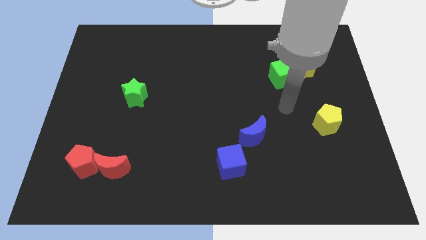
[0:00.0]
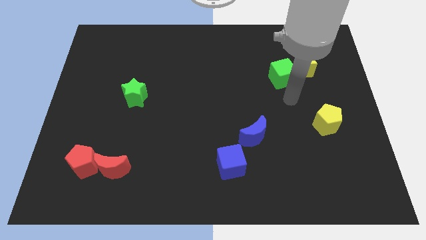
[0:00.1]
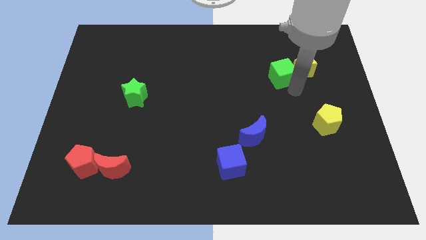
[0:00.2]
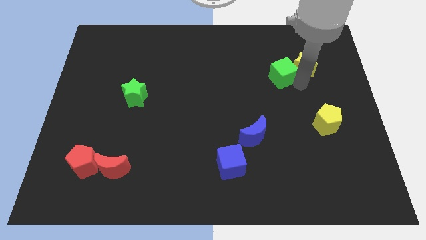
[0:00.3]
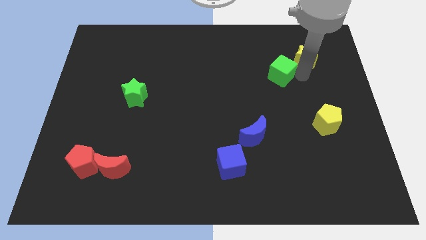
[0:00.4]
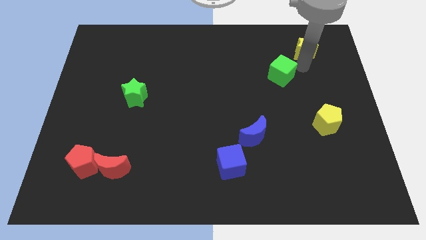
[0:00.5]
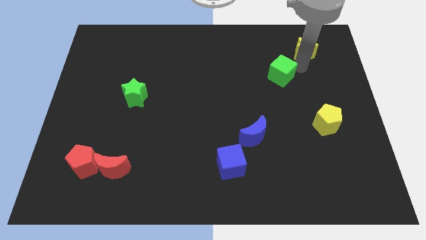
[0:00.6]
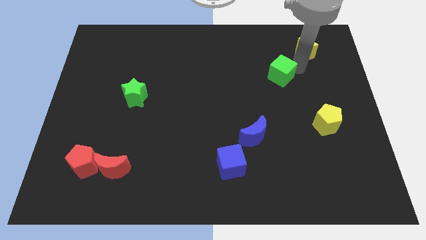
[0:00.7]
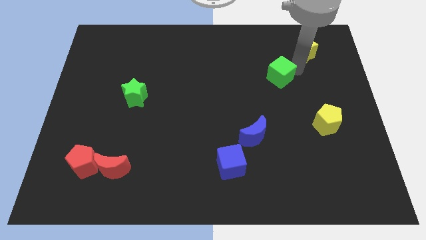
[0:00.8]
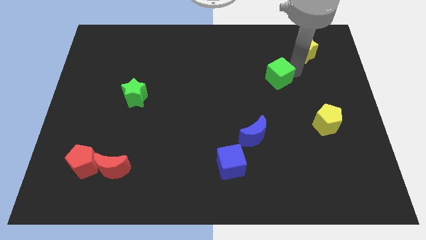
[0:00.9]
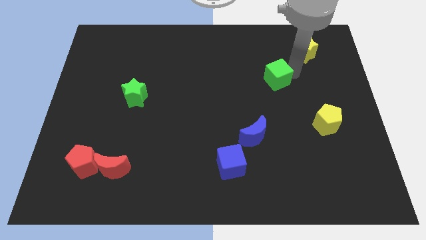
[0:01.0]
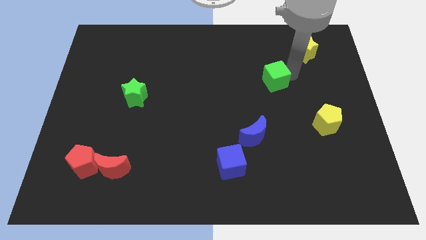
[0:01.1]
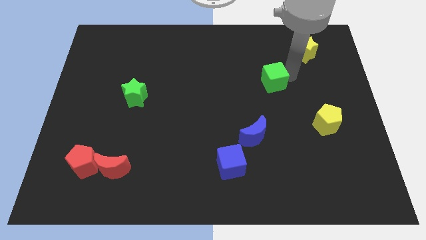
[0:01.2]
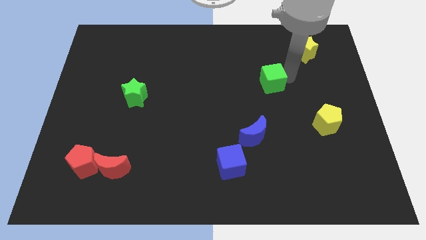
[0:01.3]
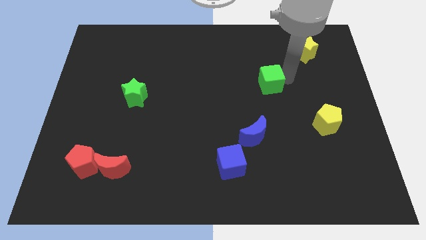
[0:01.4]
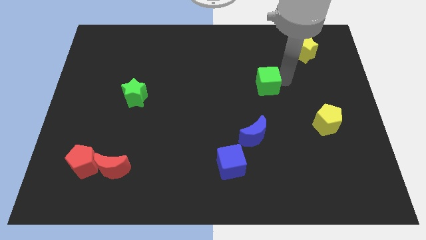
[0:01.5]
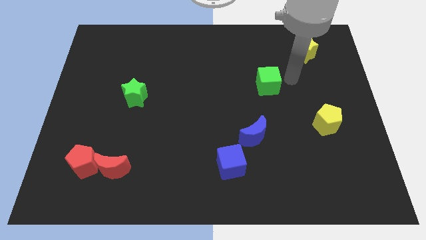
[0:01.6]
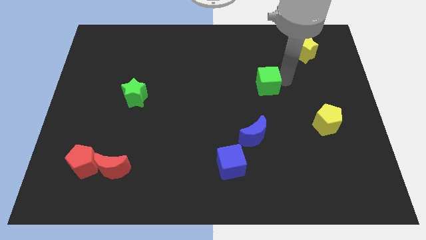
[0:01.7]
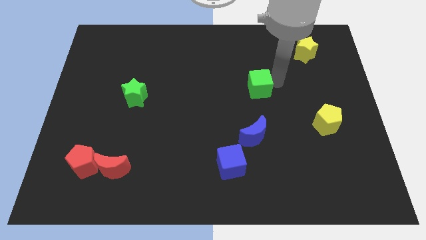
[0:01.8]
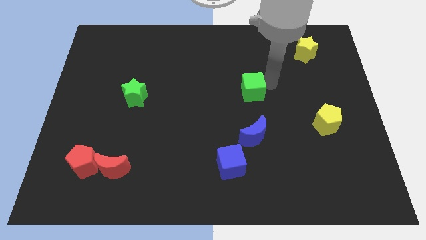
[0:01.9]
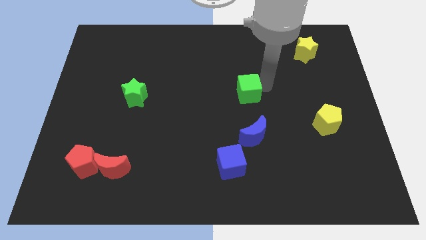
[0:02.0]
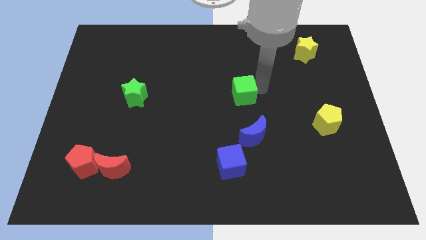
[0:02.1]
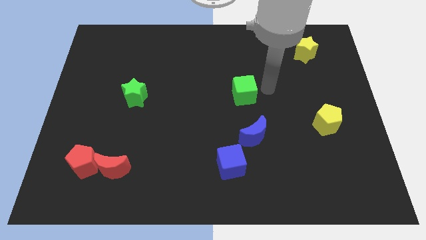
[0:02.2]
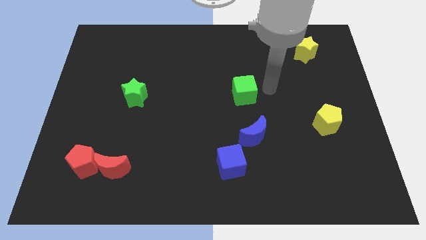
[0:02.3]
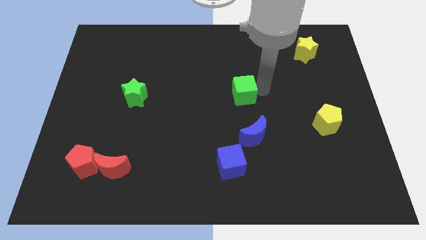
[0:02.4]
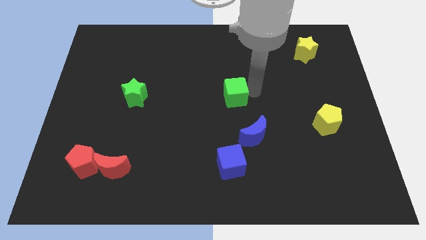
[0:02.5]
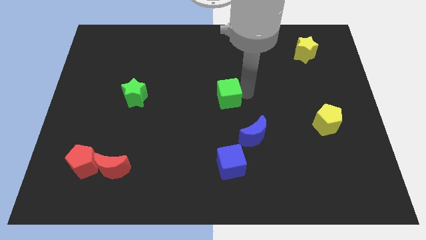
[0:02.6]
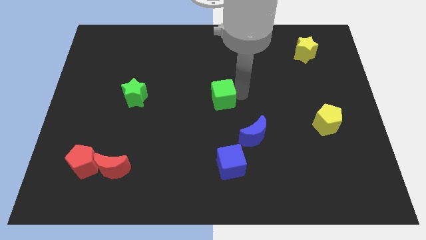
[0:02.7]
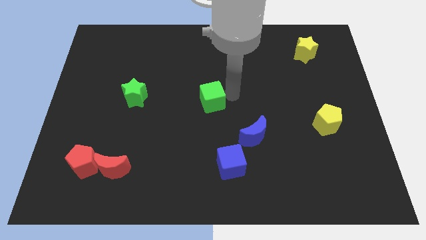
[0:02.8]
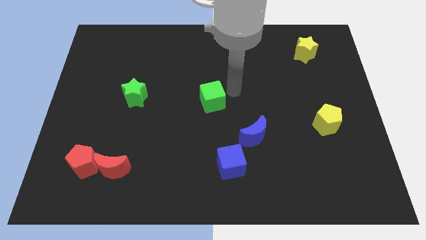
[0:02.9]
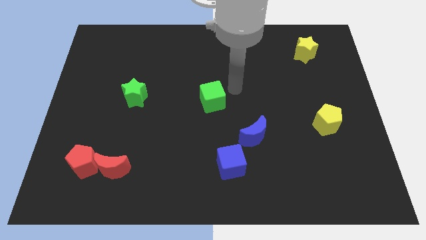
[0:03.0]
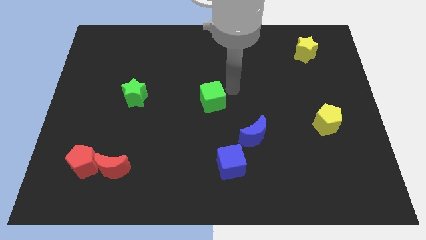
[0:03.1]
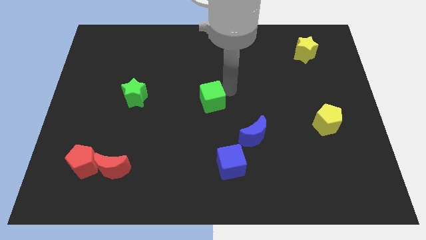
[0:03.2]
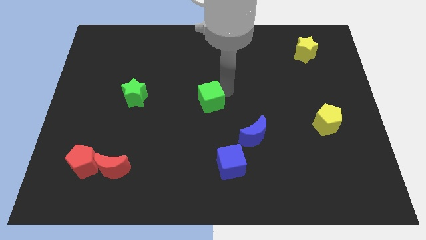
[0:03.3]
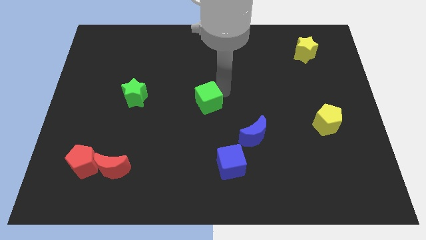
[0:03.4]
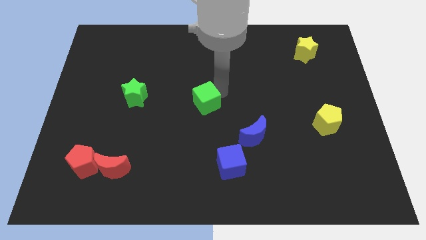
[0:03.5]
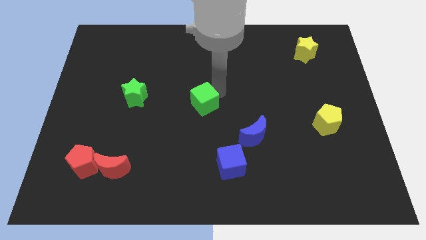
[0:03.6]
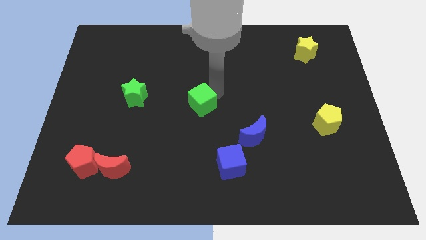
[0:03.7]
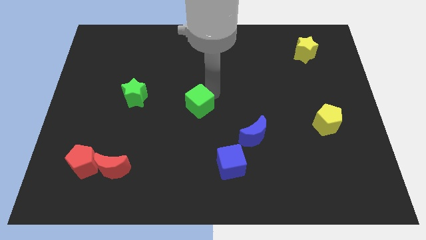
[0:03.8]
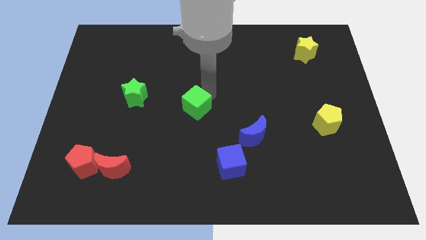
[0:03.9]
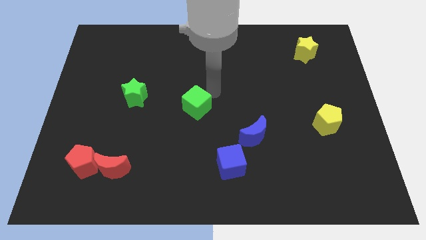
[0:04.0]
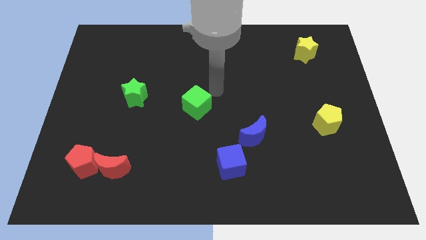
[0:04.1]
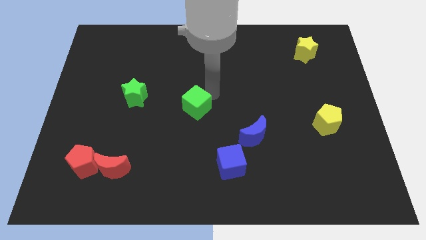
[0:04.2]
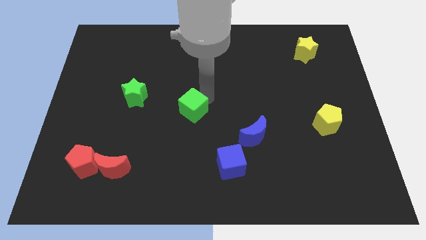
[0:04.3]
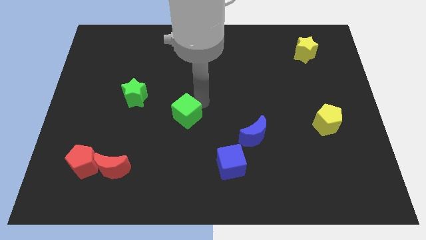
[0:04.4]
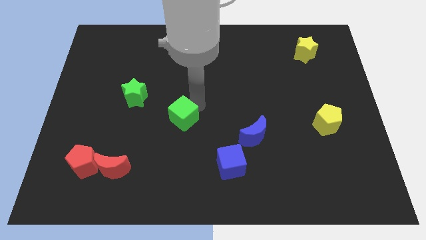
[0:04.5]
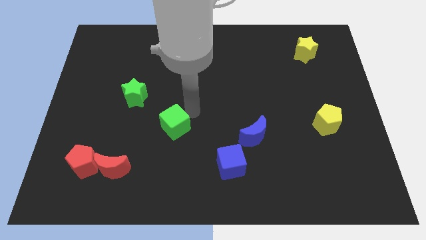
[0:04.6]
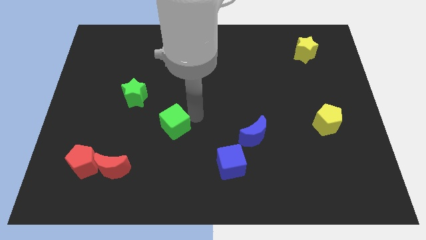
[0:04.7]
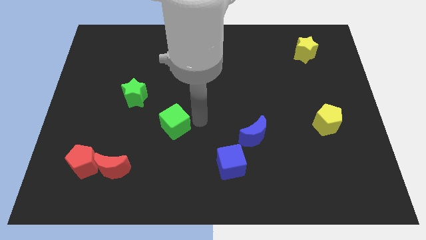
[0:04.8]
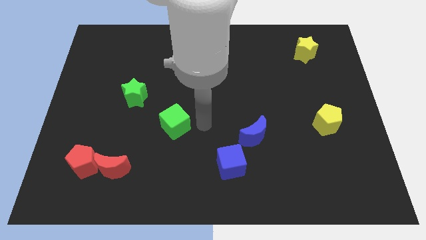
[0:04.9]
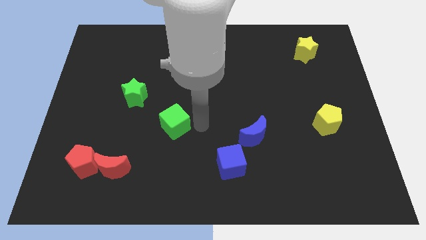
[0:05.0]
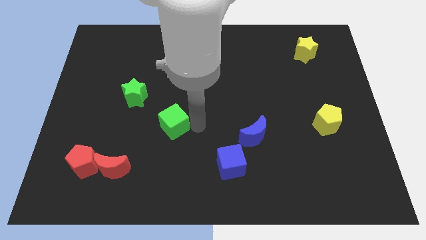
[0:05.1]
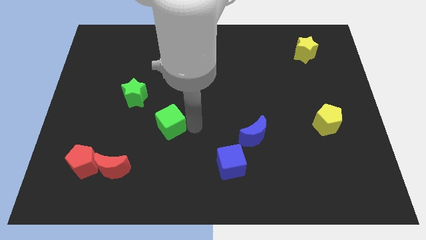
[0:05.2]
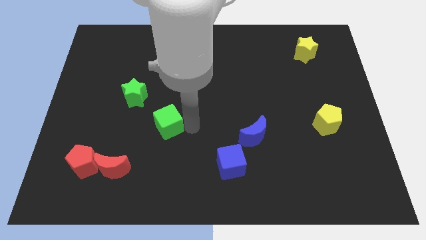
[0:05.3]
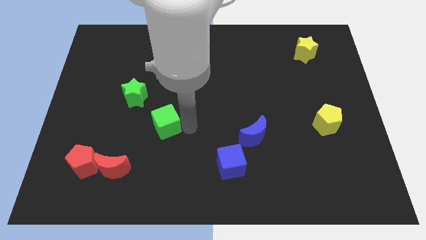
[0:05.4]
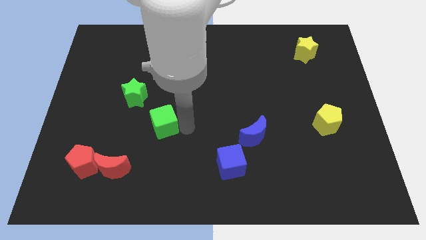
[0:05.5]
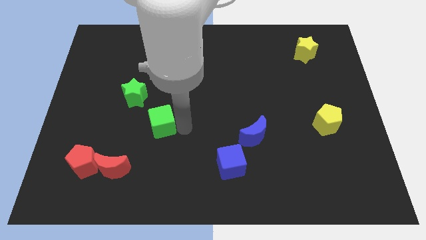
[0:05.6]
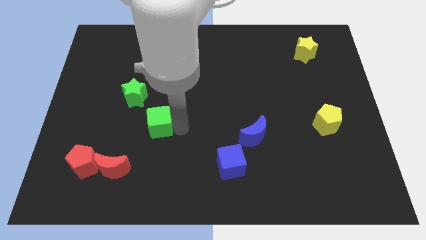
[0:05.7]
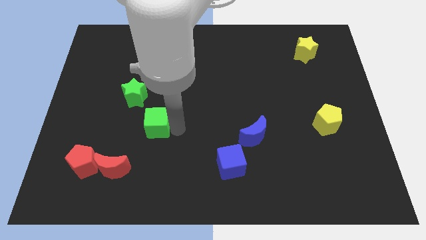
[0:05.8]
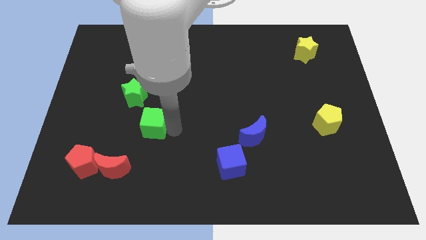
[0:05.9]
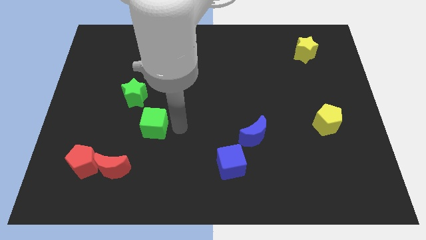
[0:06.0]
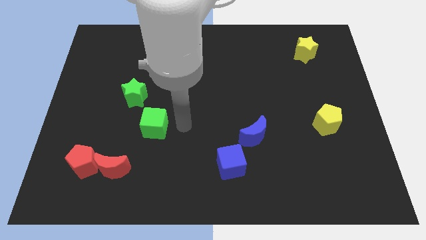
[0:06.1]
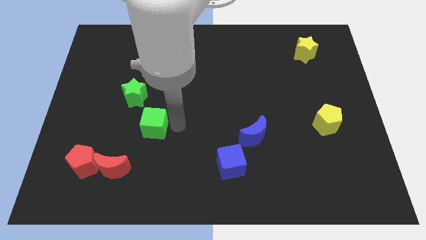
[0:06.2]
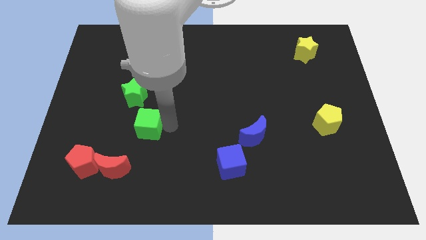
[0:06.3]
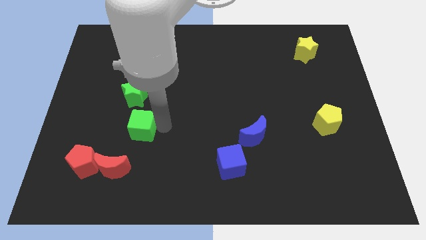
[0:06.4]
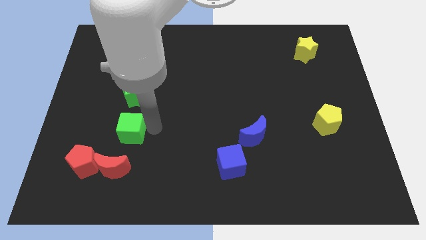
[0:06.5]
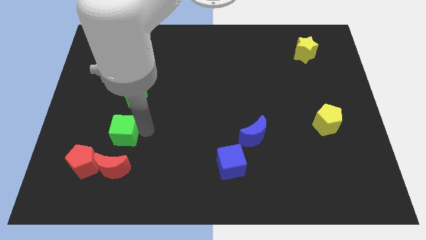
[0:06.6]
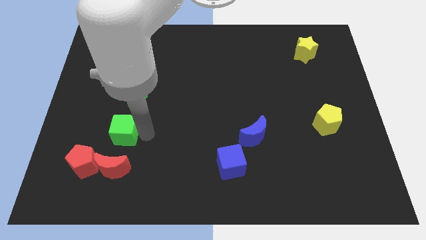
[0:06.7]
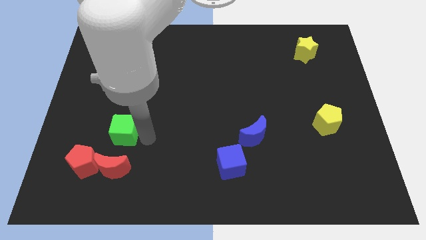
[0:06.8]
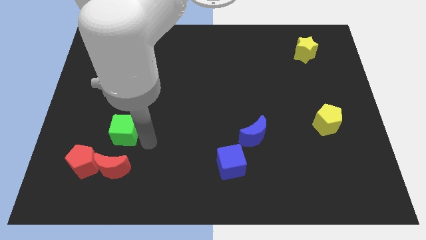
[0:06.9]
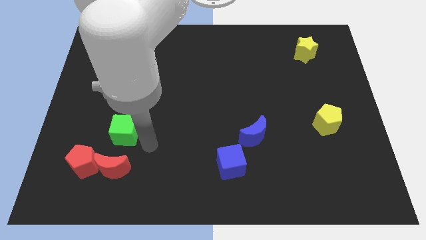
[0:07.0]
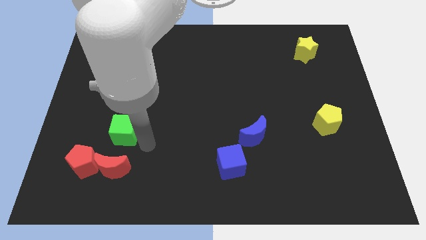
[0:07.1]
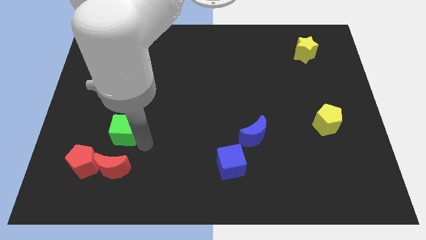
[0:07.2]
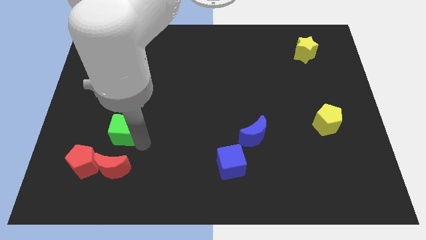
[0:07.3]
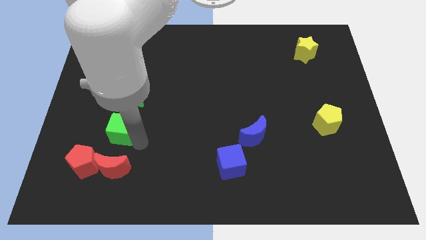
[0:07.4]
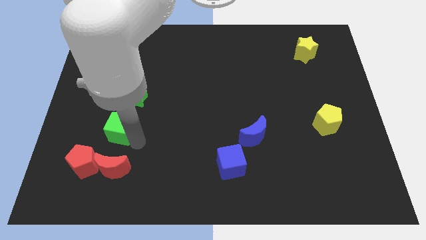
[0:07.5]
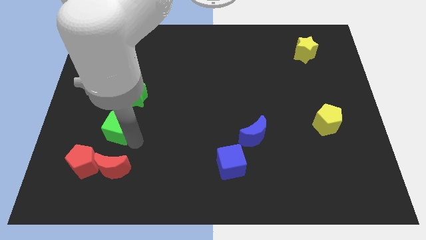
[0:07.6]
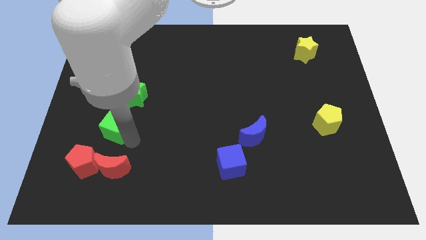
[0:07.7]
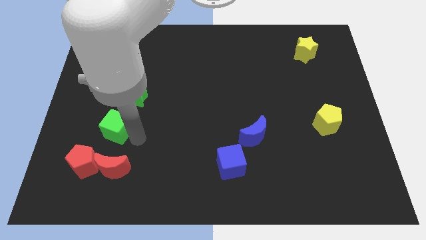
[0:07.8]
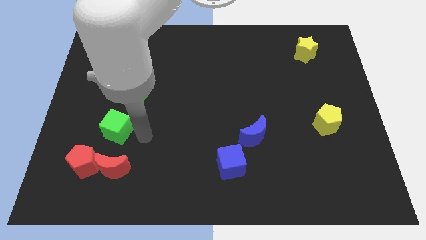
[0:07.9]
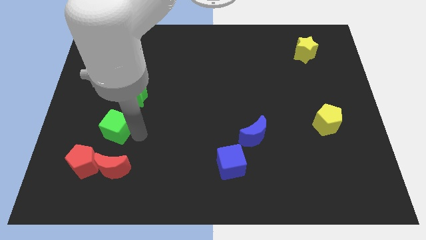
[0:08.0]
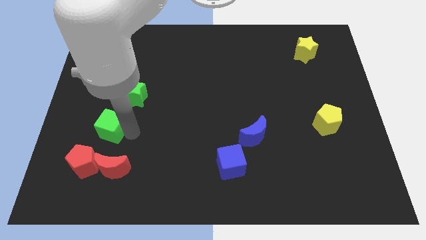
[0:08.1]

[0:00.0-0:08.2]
move the green cube to the top side of the red pentagon
